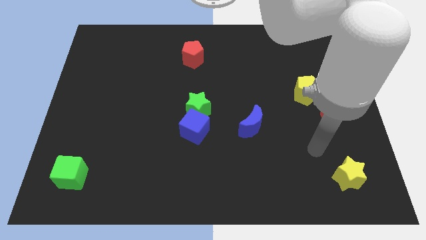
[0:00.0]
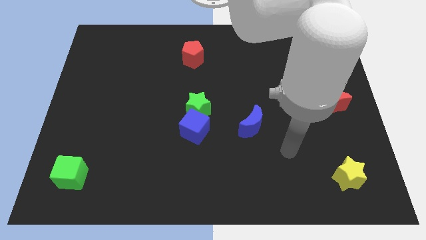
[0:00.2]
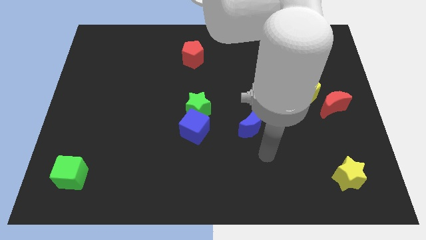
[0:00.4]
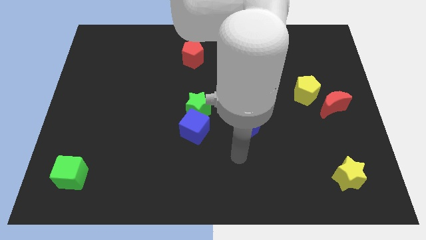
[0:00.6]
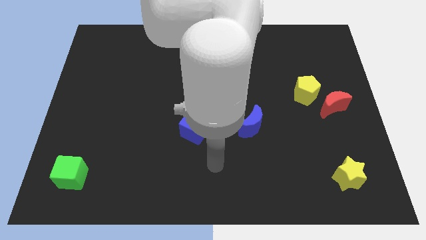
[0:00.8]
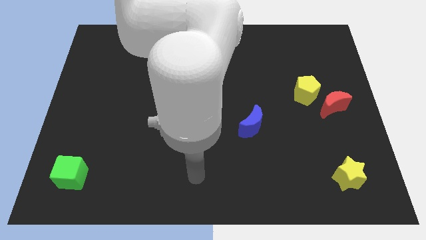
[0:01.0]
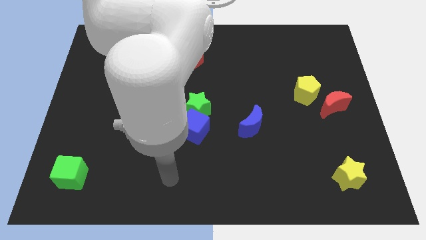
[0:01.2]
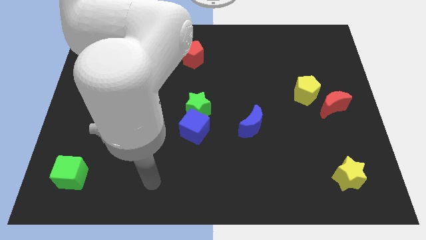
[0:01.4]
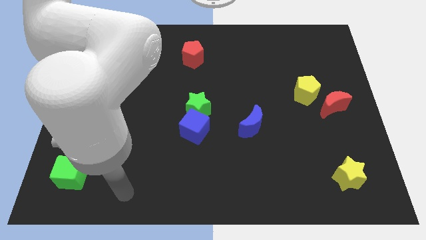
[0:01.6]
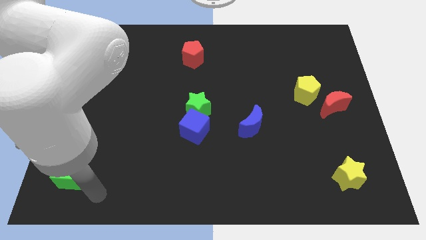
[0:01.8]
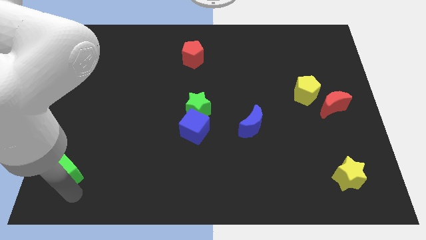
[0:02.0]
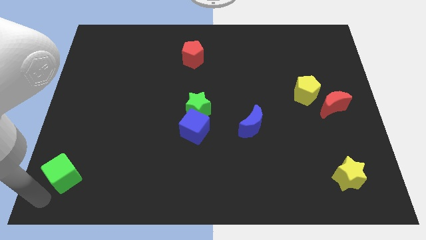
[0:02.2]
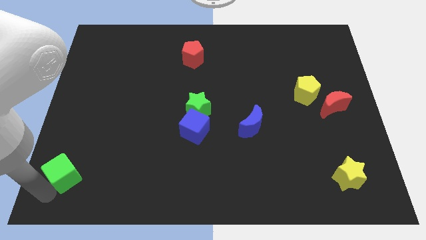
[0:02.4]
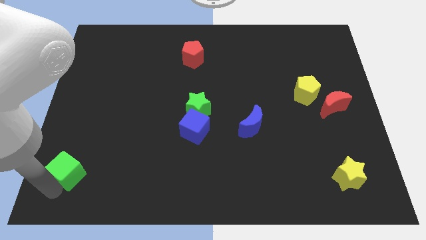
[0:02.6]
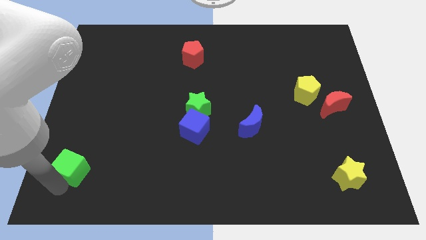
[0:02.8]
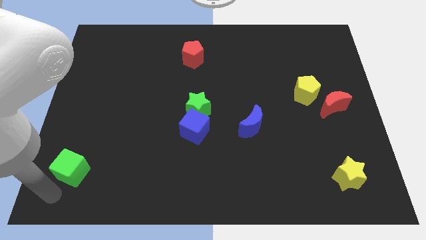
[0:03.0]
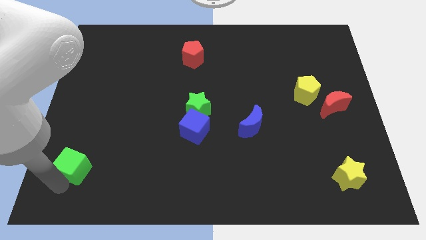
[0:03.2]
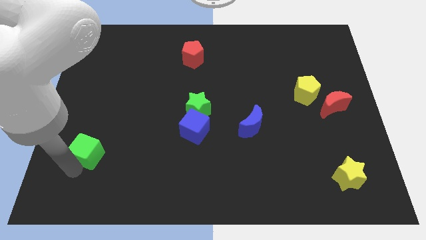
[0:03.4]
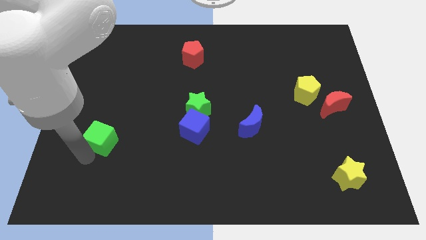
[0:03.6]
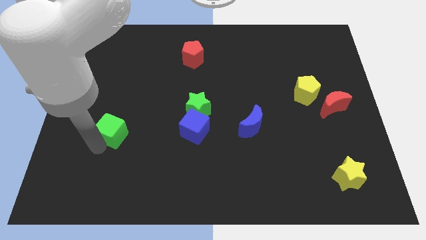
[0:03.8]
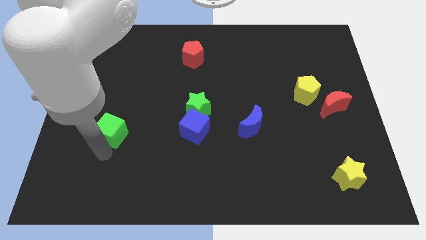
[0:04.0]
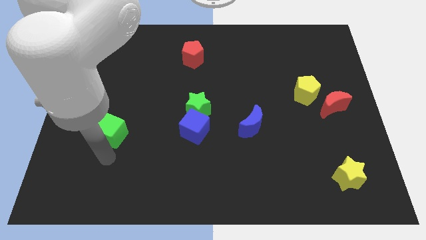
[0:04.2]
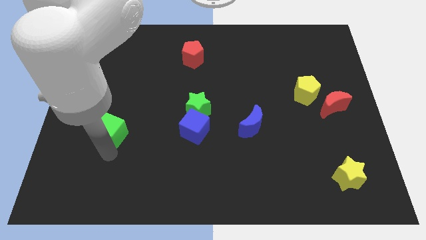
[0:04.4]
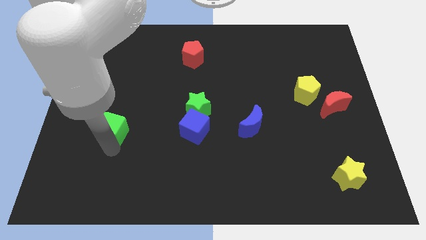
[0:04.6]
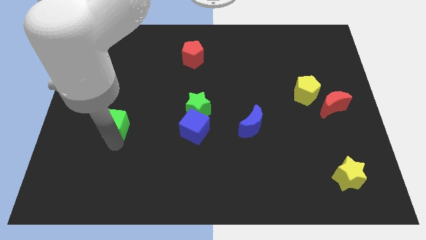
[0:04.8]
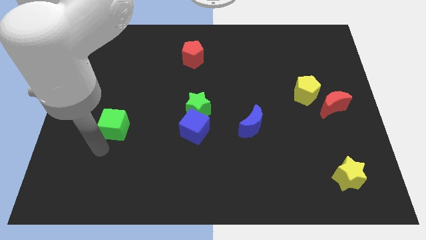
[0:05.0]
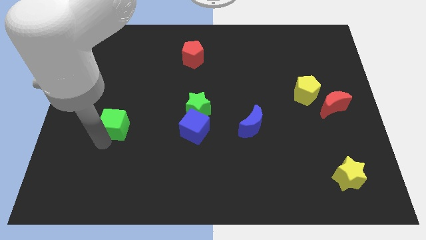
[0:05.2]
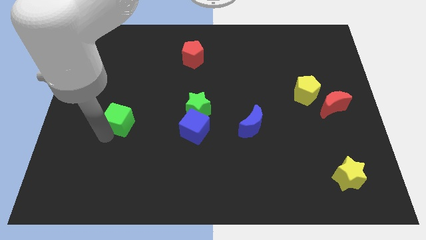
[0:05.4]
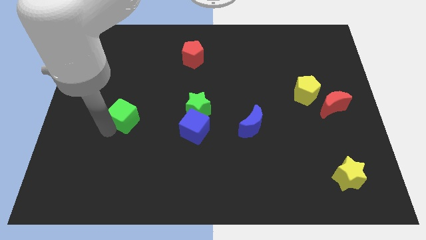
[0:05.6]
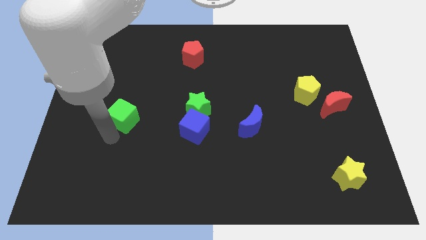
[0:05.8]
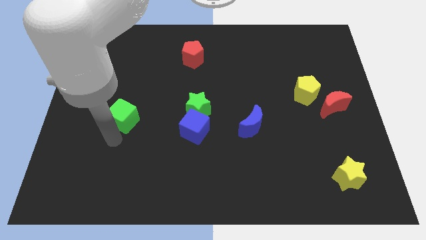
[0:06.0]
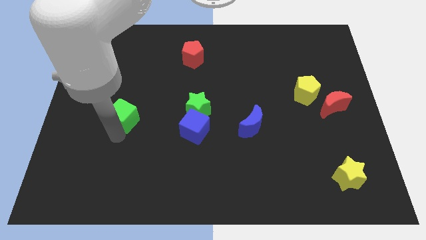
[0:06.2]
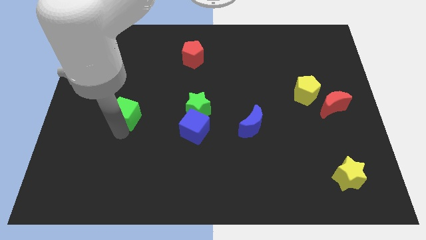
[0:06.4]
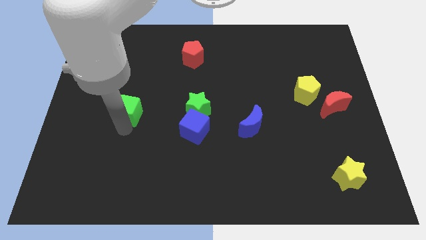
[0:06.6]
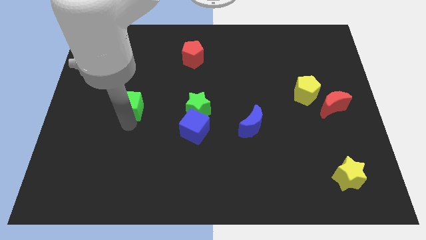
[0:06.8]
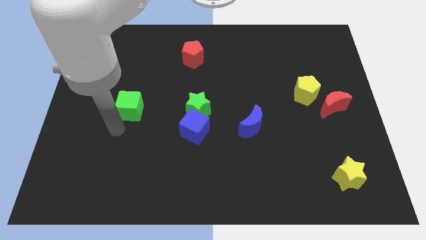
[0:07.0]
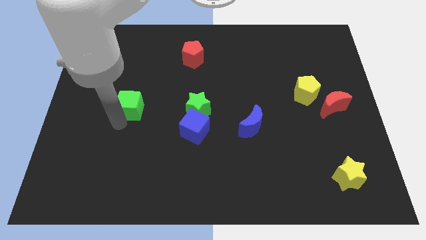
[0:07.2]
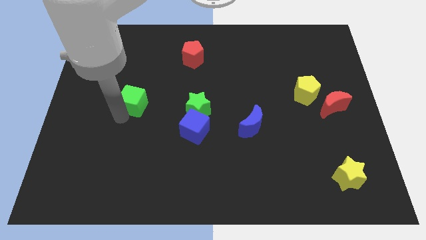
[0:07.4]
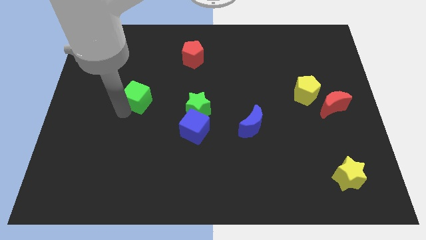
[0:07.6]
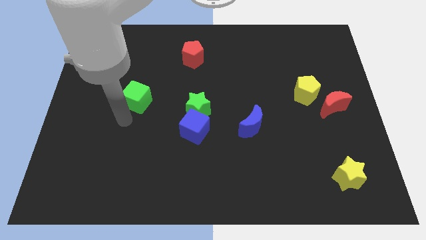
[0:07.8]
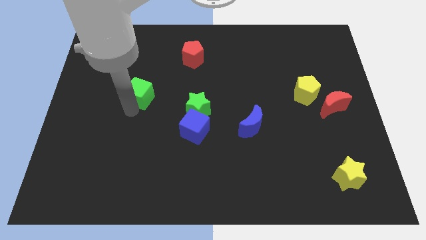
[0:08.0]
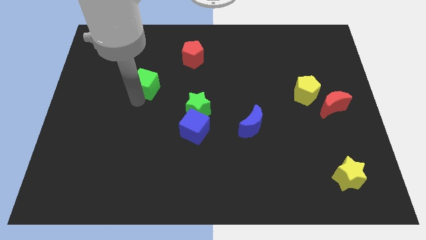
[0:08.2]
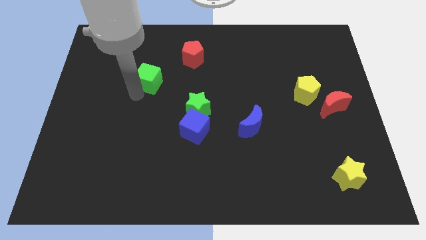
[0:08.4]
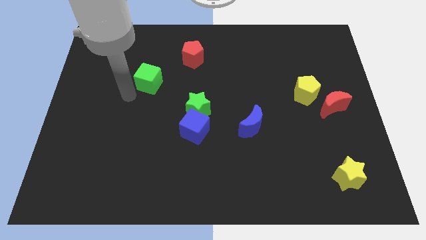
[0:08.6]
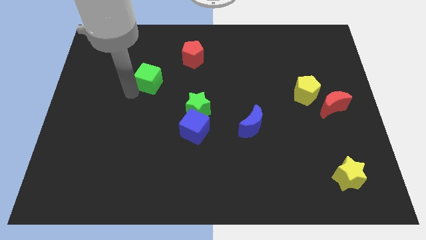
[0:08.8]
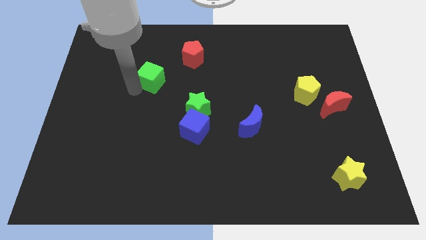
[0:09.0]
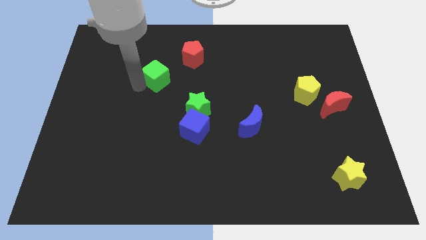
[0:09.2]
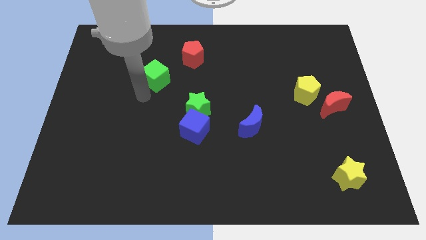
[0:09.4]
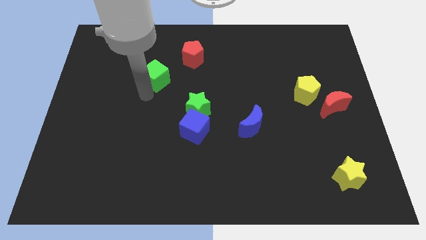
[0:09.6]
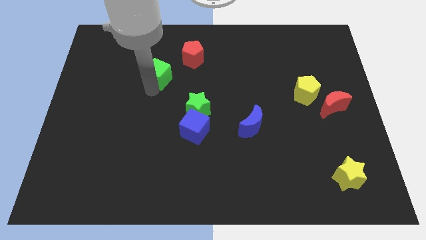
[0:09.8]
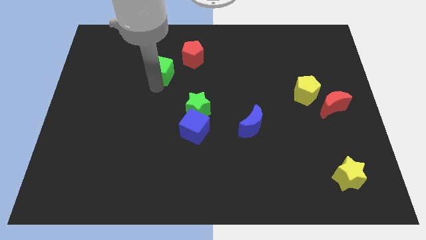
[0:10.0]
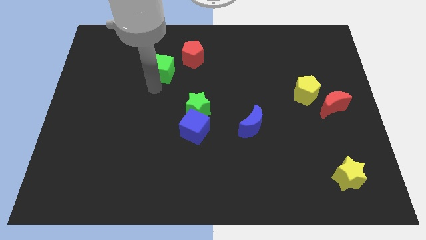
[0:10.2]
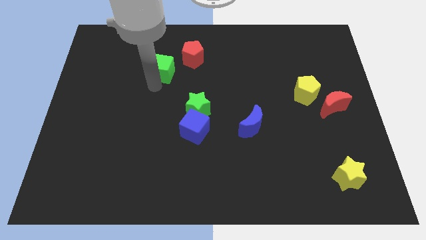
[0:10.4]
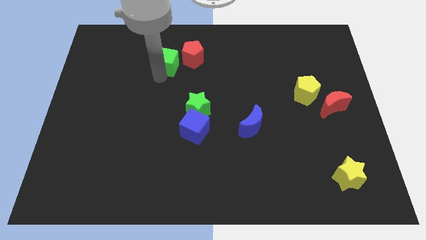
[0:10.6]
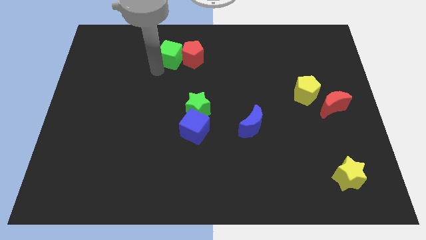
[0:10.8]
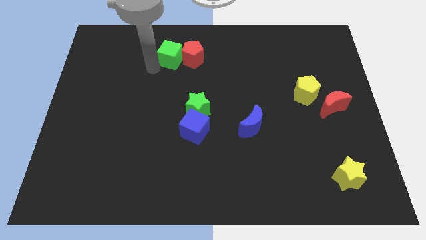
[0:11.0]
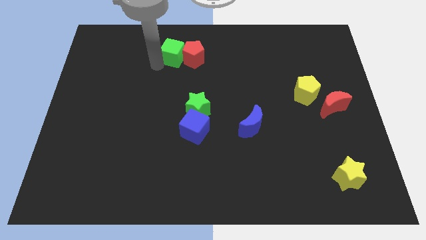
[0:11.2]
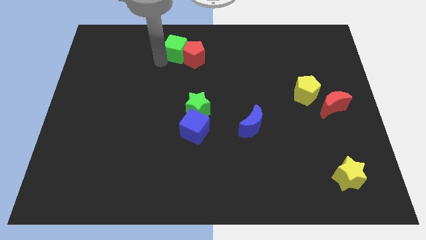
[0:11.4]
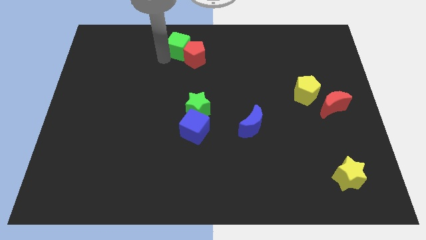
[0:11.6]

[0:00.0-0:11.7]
slide the green cube to the towards your base
